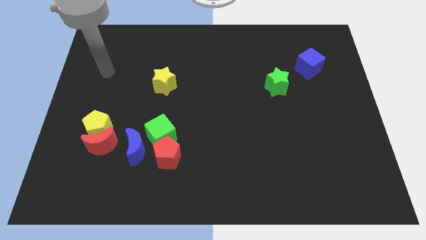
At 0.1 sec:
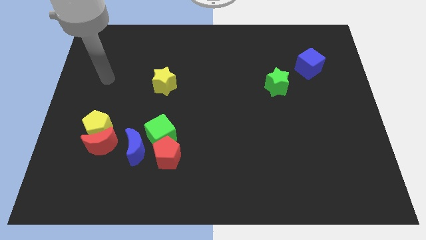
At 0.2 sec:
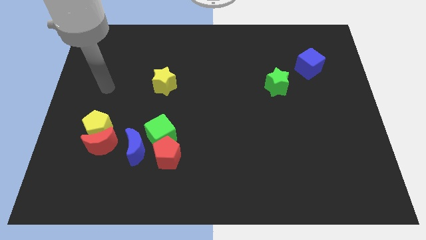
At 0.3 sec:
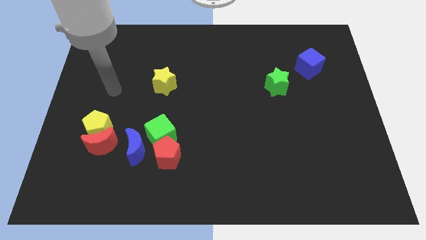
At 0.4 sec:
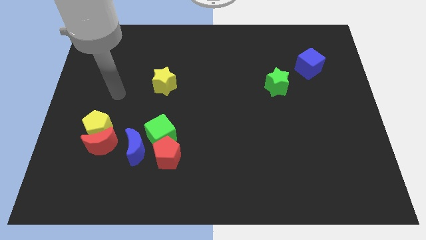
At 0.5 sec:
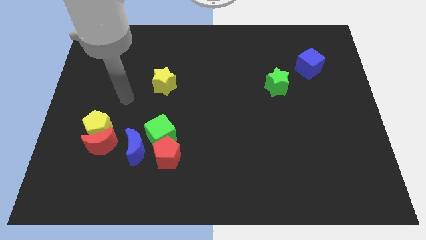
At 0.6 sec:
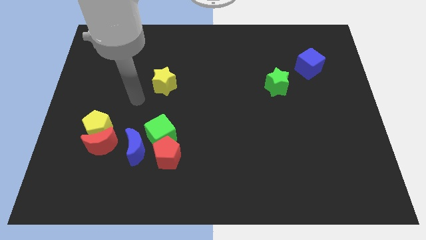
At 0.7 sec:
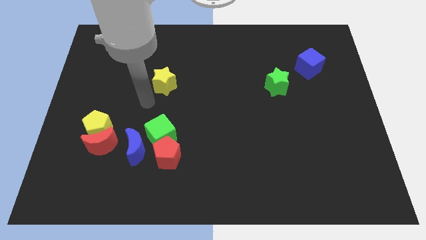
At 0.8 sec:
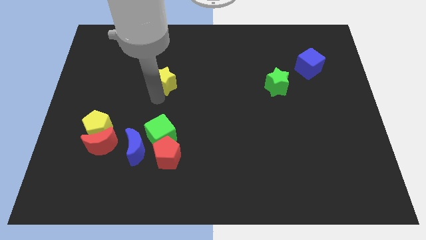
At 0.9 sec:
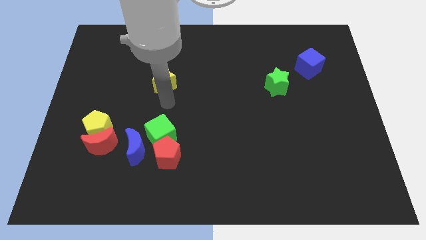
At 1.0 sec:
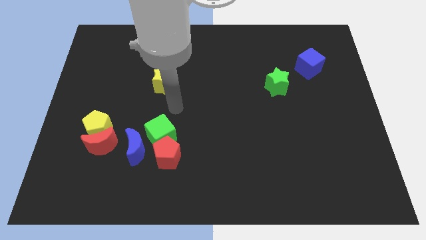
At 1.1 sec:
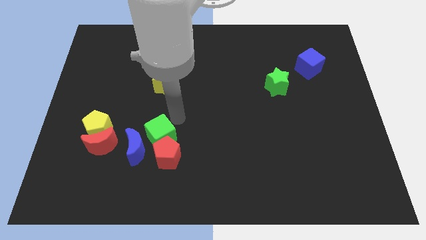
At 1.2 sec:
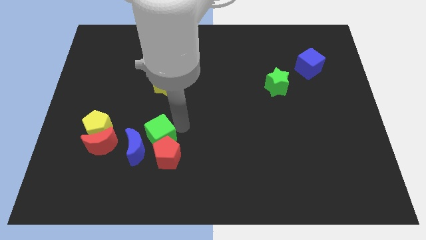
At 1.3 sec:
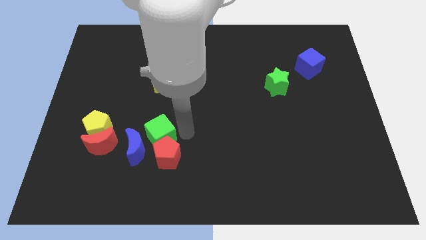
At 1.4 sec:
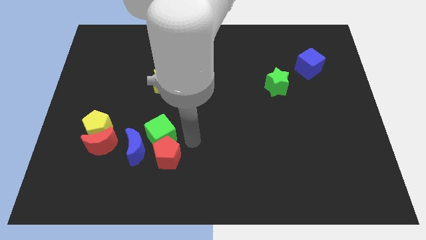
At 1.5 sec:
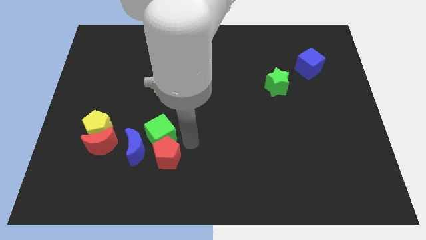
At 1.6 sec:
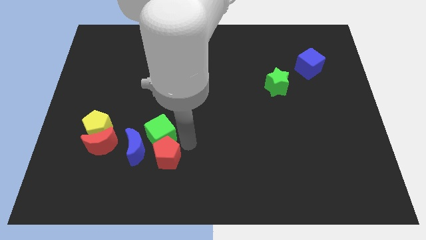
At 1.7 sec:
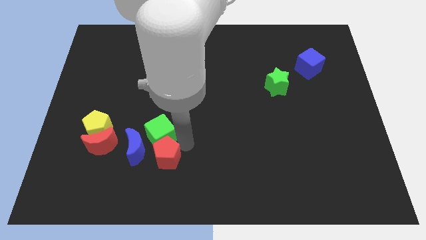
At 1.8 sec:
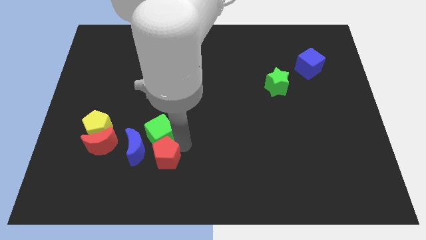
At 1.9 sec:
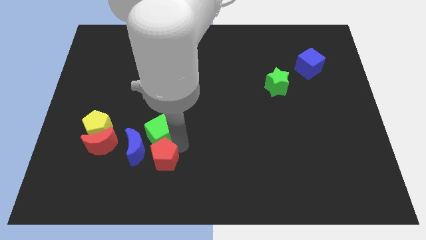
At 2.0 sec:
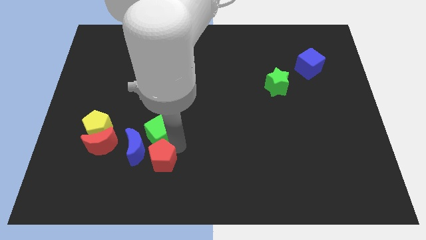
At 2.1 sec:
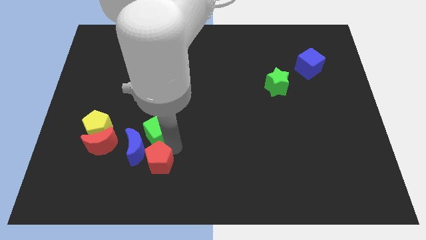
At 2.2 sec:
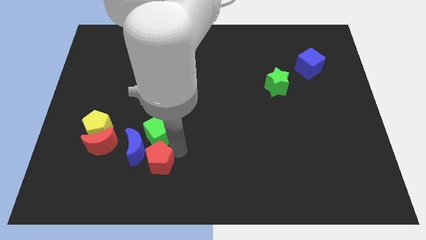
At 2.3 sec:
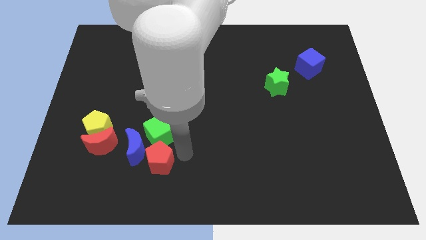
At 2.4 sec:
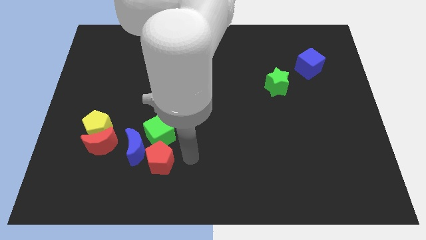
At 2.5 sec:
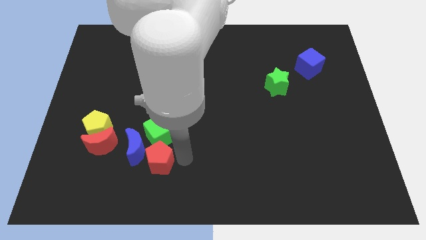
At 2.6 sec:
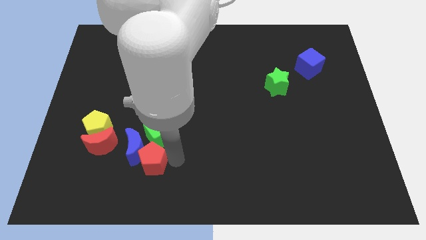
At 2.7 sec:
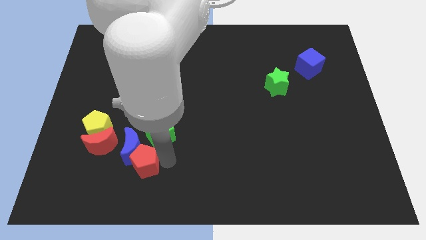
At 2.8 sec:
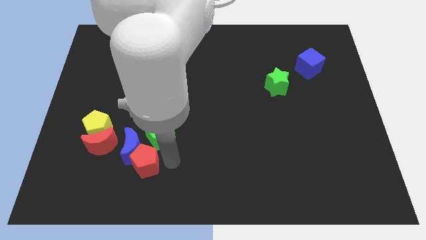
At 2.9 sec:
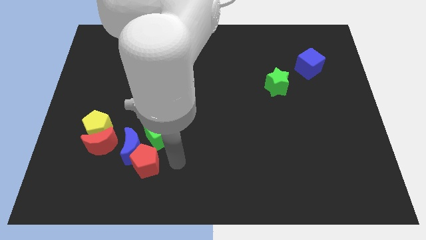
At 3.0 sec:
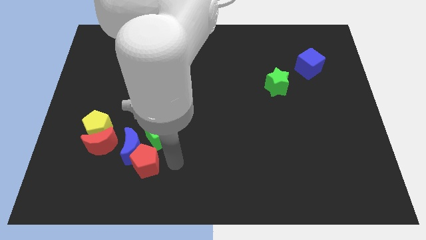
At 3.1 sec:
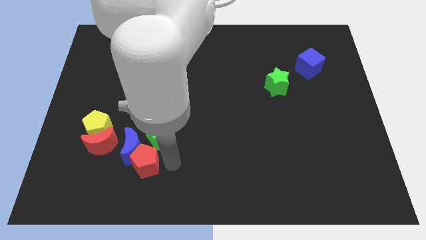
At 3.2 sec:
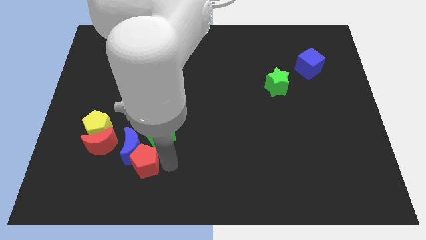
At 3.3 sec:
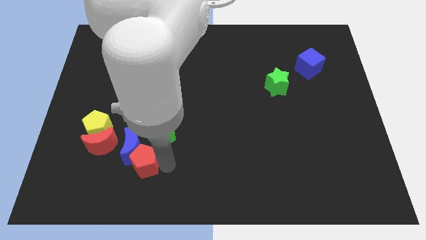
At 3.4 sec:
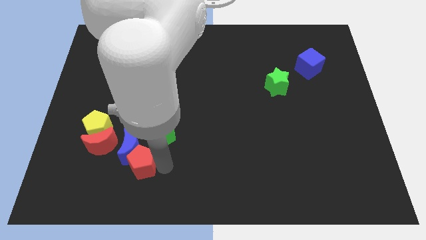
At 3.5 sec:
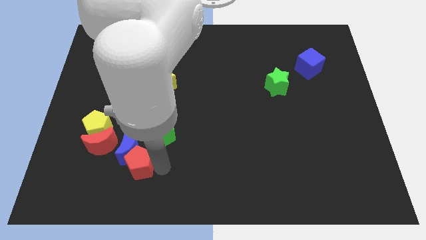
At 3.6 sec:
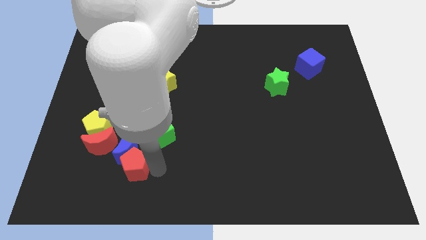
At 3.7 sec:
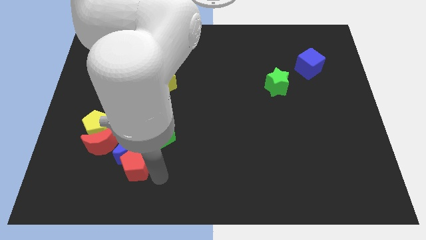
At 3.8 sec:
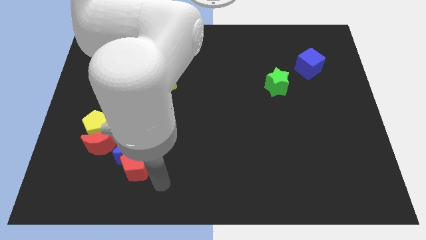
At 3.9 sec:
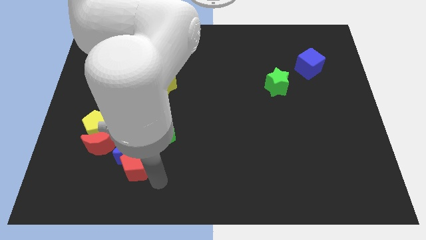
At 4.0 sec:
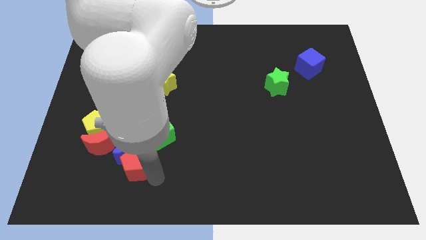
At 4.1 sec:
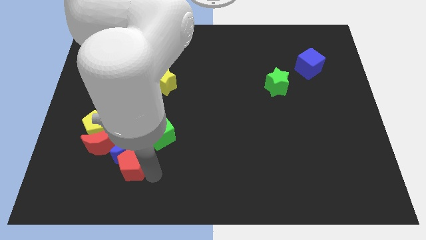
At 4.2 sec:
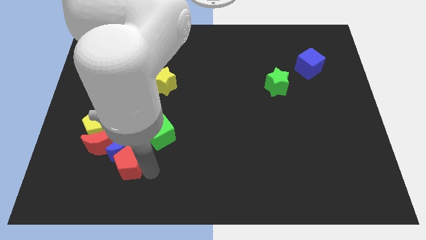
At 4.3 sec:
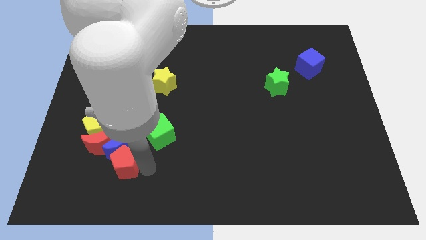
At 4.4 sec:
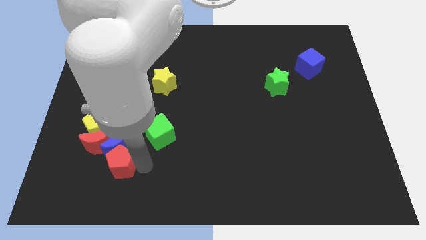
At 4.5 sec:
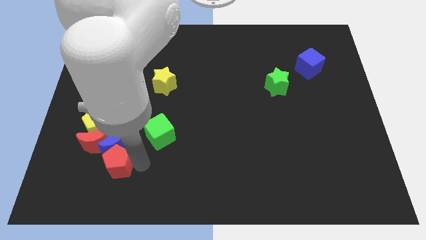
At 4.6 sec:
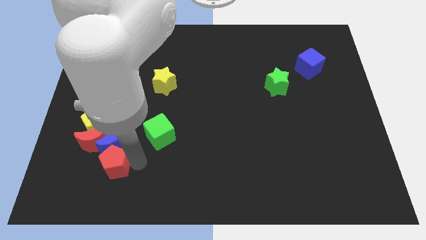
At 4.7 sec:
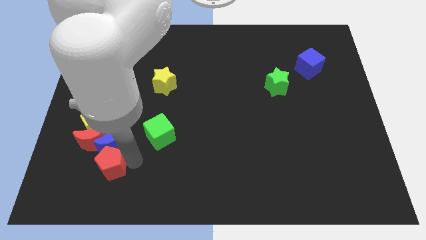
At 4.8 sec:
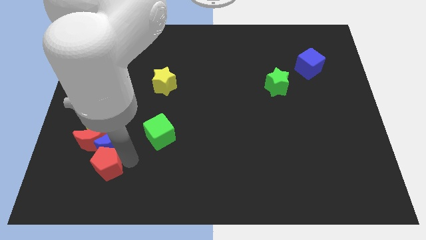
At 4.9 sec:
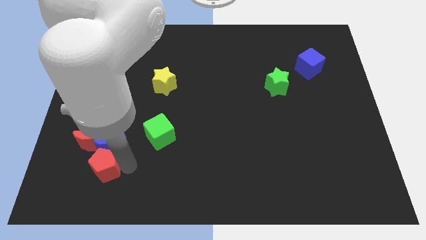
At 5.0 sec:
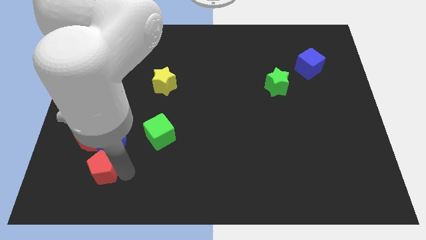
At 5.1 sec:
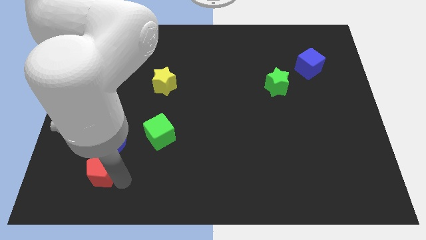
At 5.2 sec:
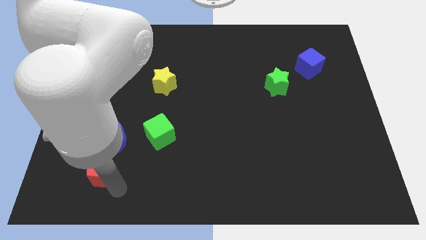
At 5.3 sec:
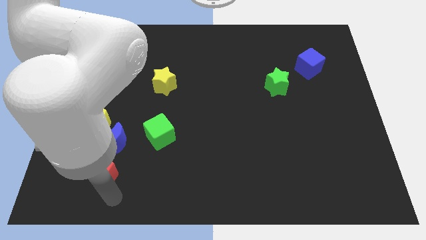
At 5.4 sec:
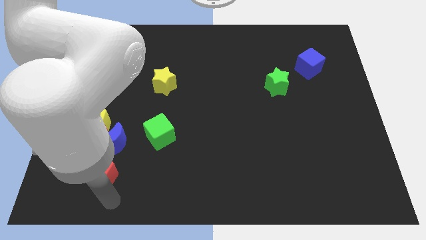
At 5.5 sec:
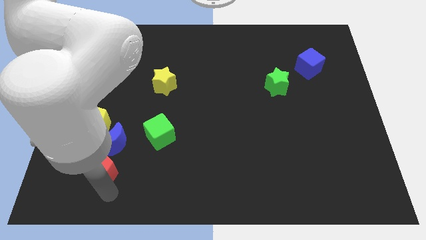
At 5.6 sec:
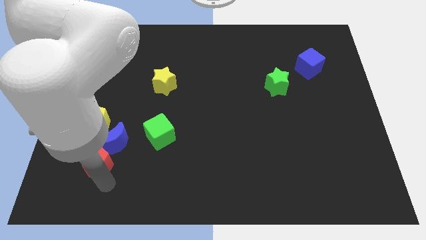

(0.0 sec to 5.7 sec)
slide the red pentagon close to the red moon

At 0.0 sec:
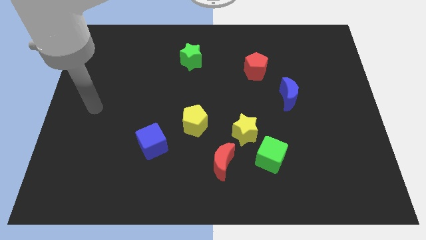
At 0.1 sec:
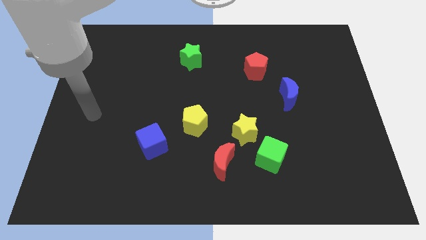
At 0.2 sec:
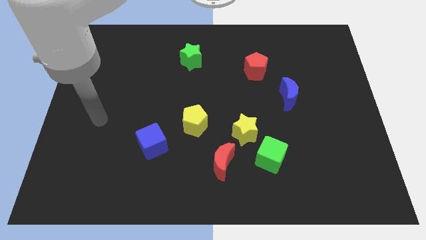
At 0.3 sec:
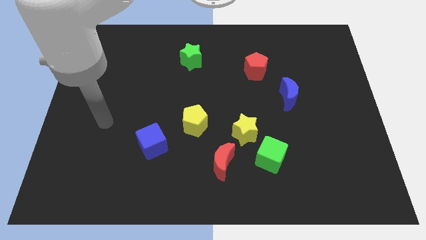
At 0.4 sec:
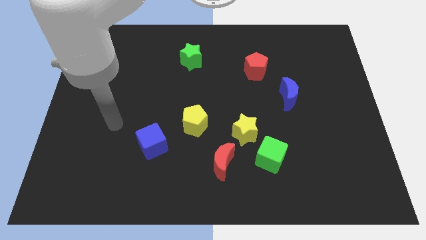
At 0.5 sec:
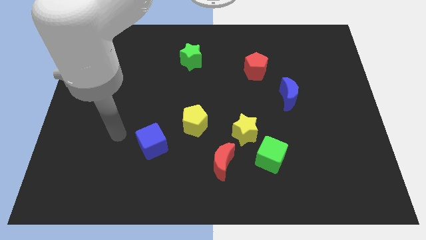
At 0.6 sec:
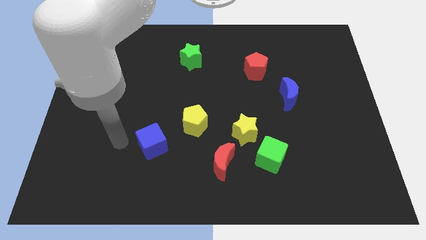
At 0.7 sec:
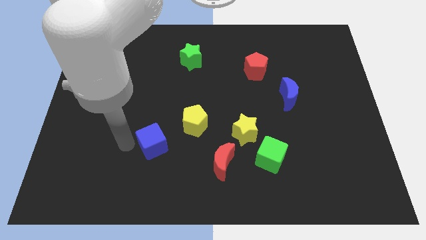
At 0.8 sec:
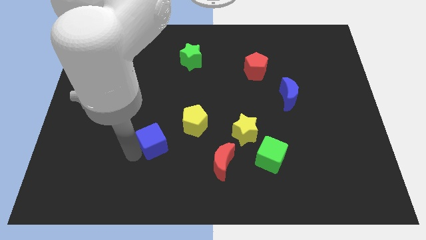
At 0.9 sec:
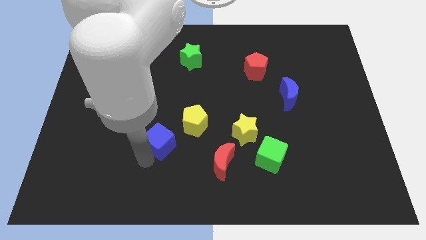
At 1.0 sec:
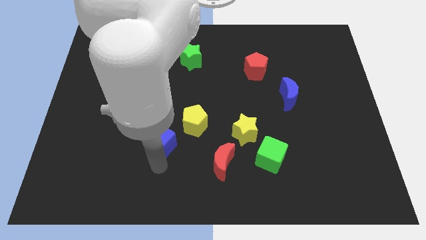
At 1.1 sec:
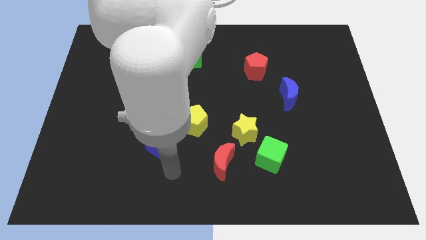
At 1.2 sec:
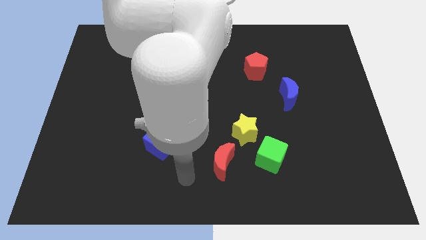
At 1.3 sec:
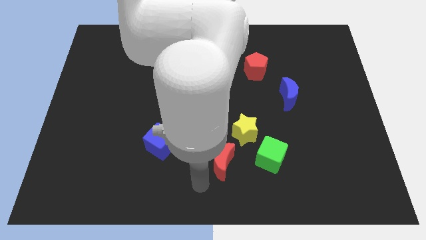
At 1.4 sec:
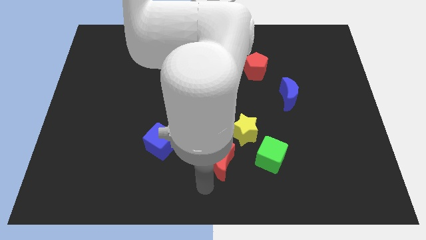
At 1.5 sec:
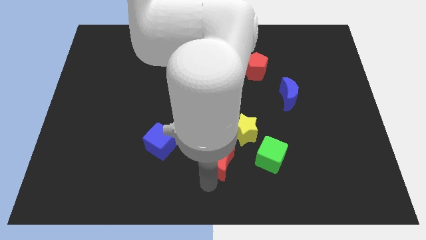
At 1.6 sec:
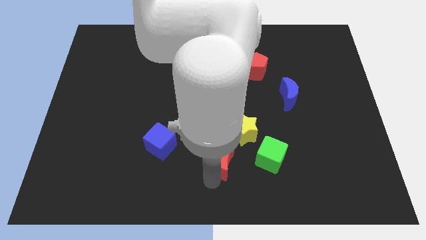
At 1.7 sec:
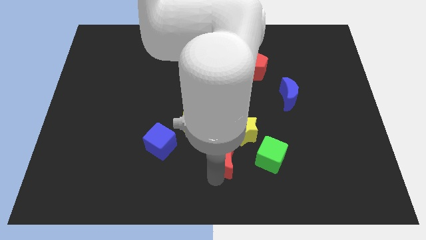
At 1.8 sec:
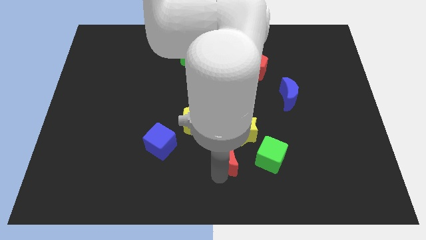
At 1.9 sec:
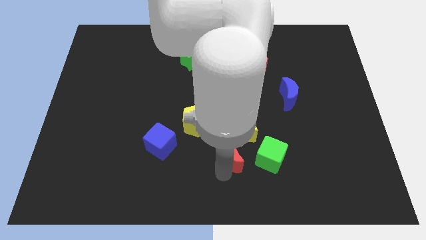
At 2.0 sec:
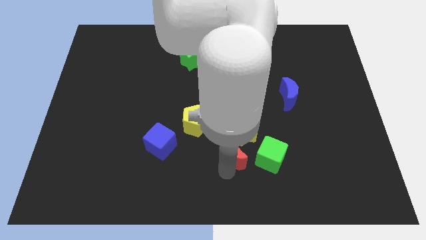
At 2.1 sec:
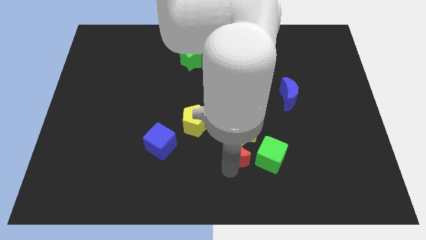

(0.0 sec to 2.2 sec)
move the red moon towards the yellow star

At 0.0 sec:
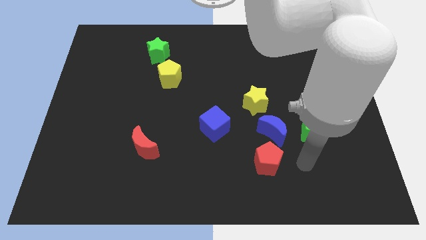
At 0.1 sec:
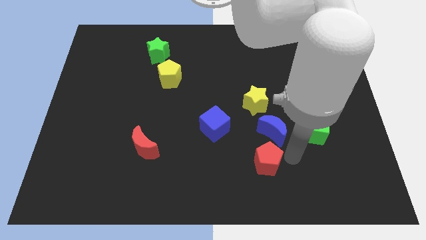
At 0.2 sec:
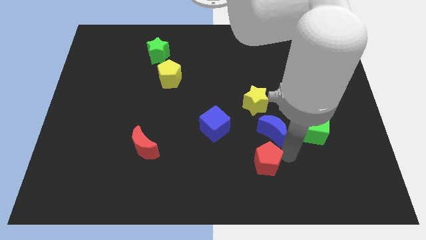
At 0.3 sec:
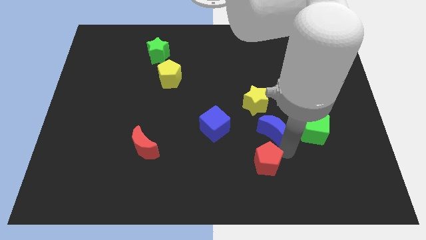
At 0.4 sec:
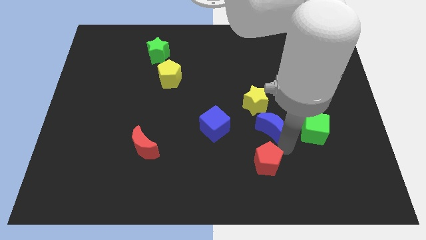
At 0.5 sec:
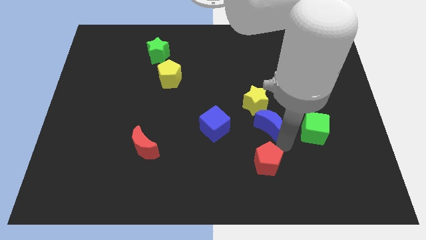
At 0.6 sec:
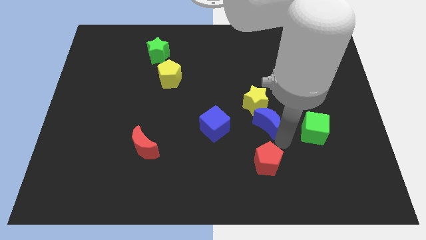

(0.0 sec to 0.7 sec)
slide the blue moon close to the yellow star
